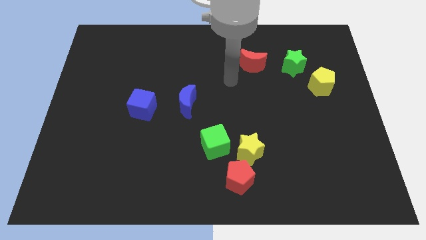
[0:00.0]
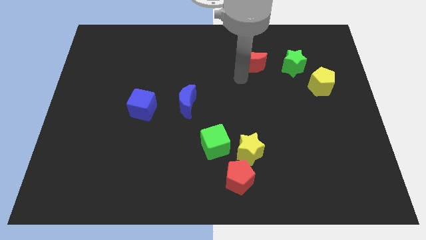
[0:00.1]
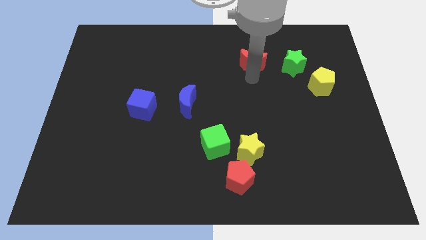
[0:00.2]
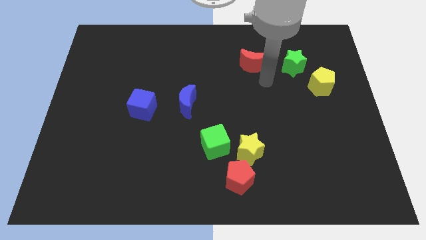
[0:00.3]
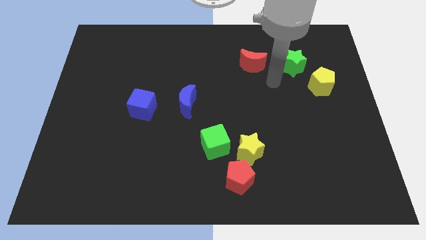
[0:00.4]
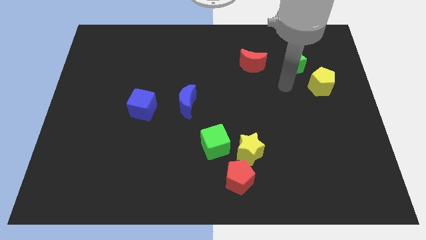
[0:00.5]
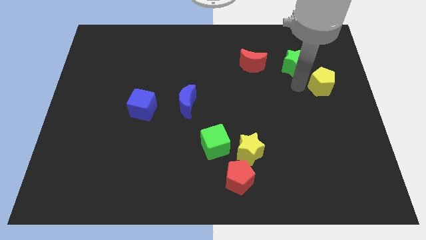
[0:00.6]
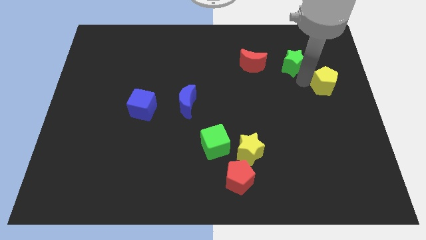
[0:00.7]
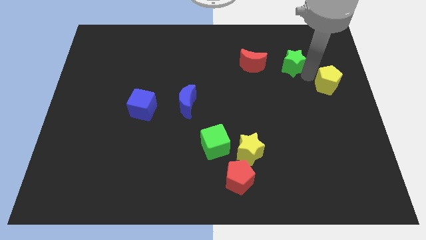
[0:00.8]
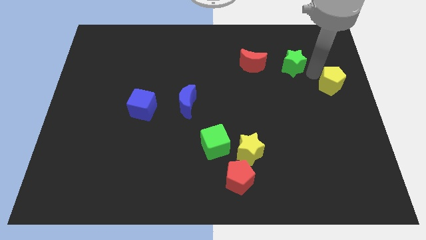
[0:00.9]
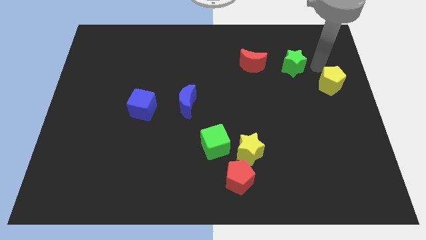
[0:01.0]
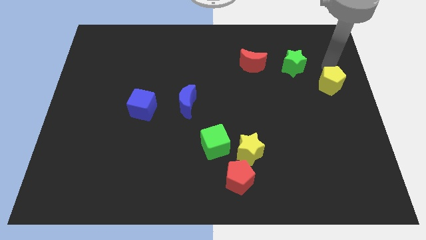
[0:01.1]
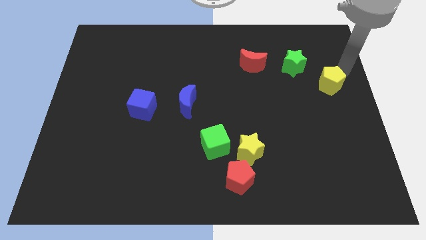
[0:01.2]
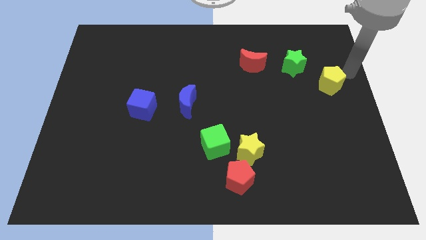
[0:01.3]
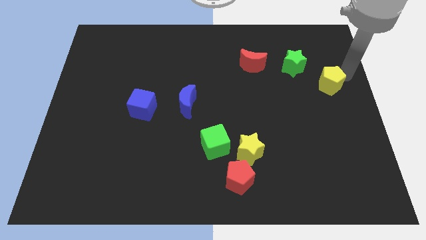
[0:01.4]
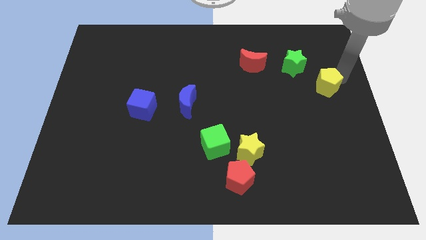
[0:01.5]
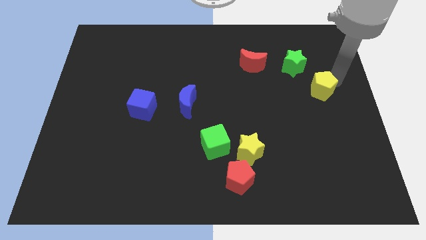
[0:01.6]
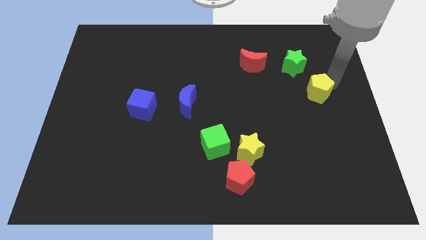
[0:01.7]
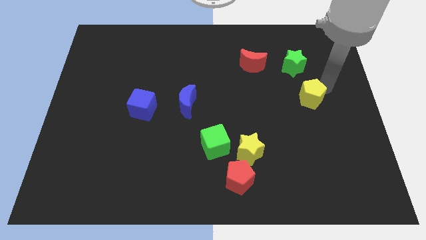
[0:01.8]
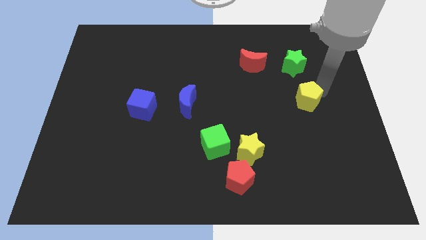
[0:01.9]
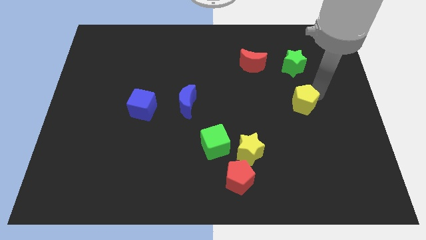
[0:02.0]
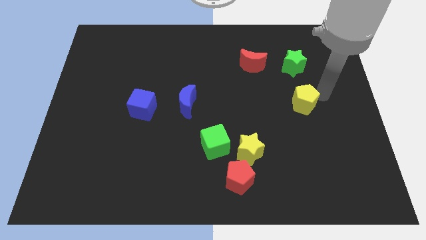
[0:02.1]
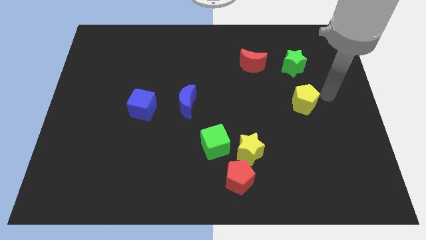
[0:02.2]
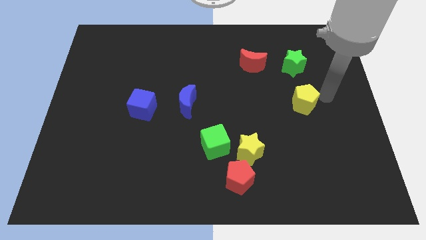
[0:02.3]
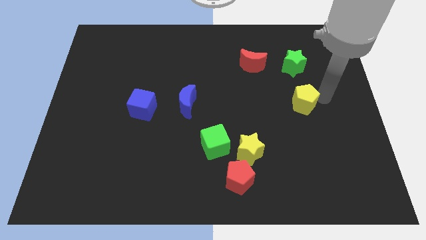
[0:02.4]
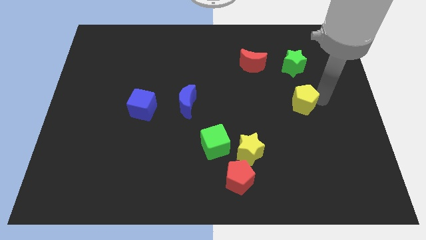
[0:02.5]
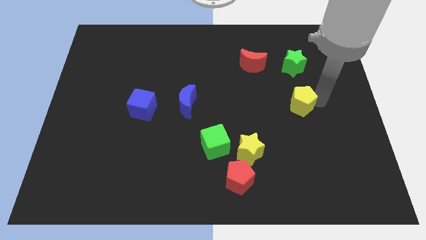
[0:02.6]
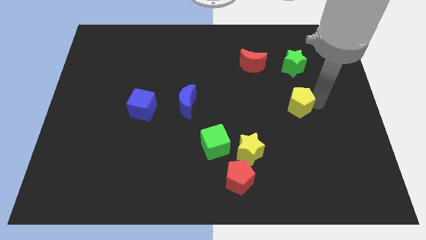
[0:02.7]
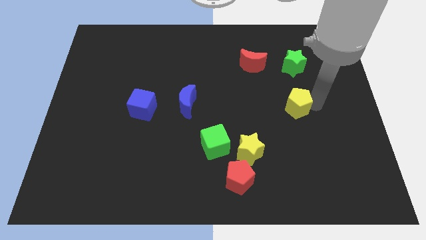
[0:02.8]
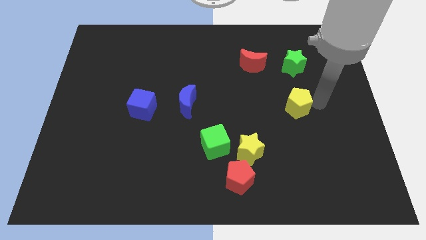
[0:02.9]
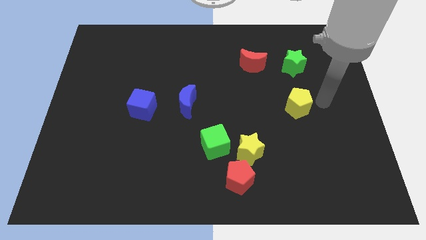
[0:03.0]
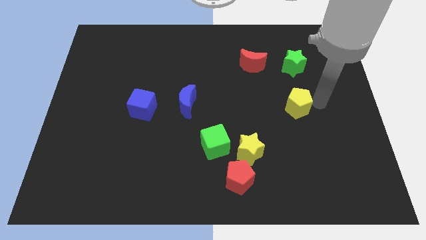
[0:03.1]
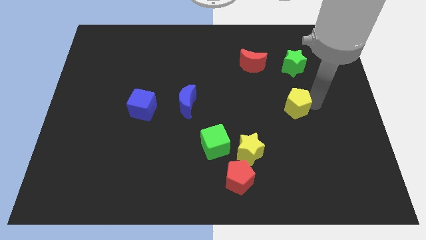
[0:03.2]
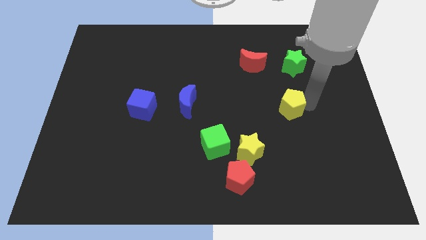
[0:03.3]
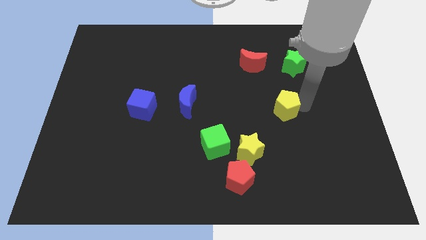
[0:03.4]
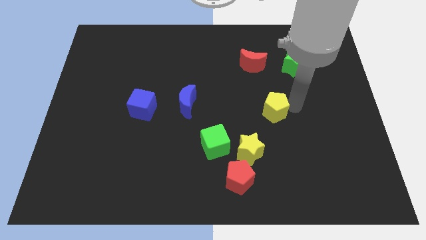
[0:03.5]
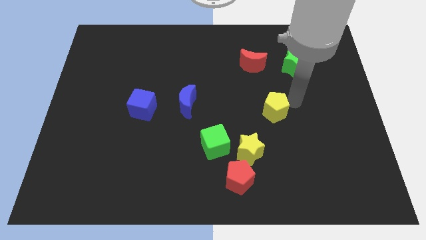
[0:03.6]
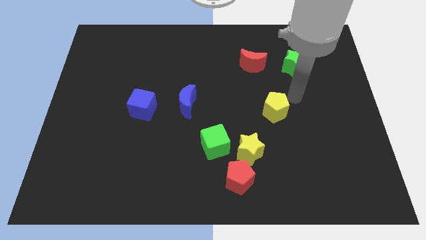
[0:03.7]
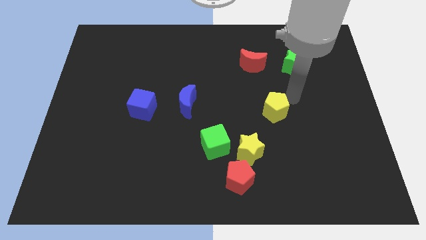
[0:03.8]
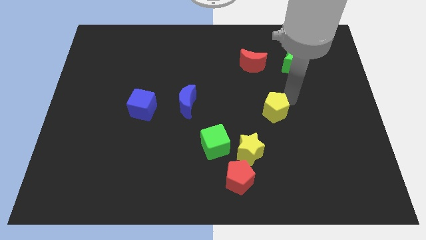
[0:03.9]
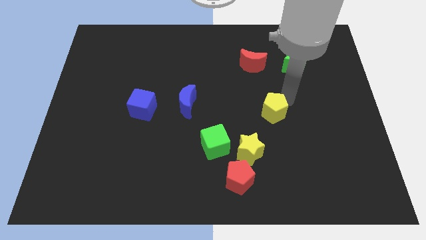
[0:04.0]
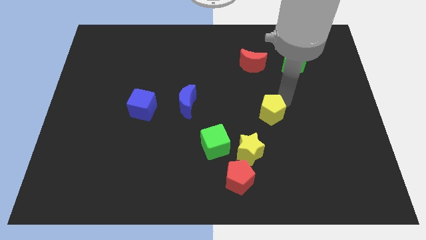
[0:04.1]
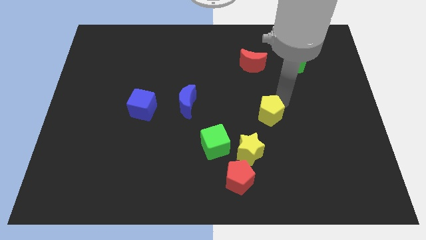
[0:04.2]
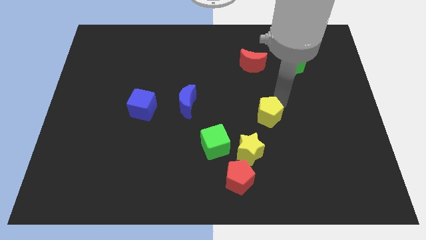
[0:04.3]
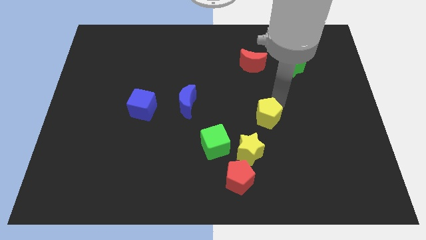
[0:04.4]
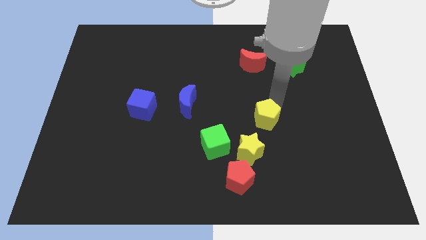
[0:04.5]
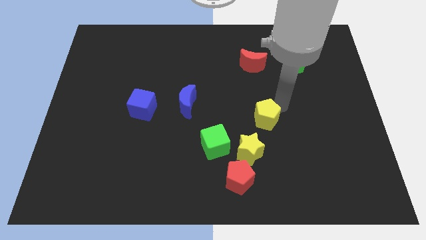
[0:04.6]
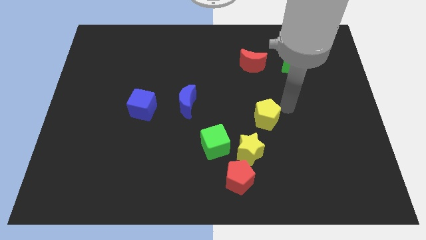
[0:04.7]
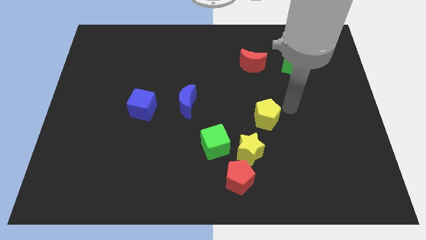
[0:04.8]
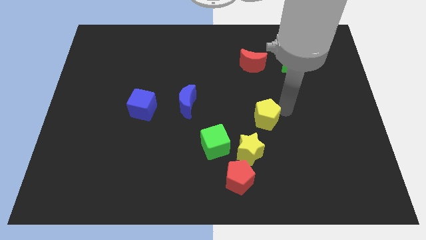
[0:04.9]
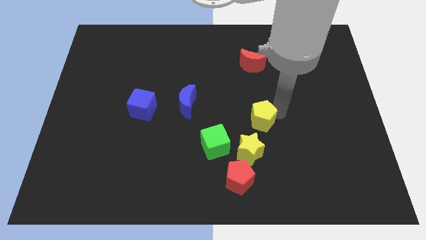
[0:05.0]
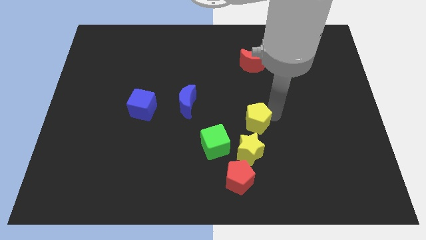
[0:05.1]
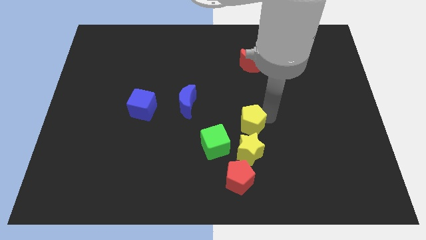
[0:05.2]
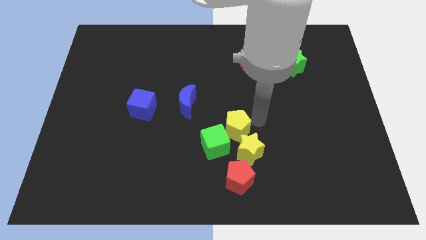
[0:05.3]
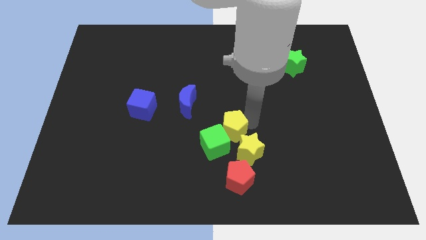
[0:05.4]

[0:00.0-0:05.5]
slide the yellow pentagon next to the green cube

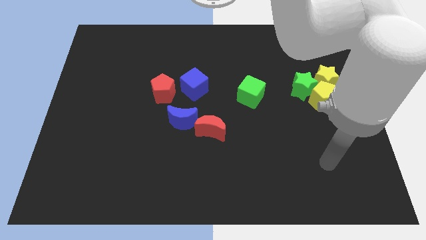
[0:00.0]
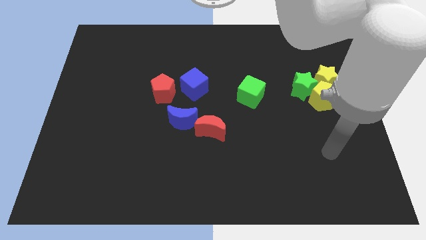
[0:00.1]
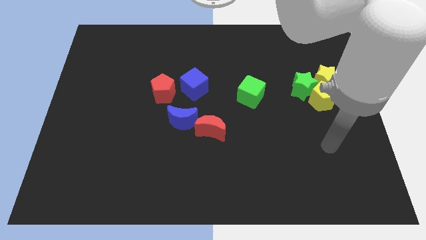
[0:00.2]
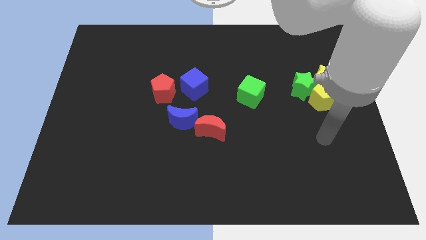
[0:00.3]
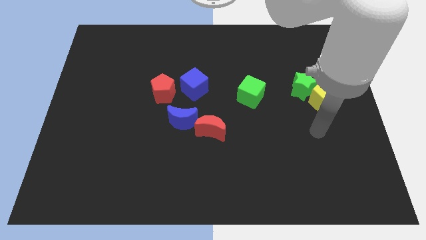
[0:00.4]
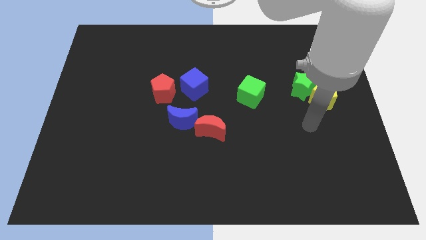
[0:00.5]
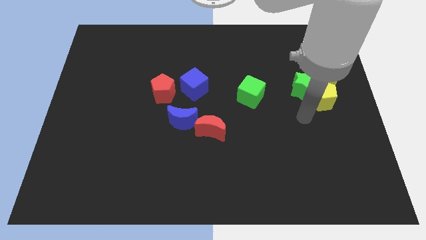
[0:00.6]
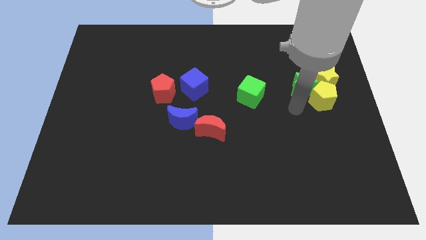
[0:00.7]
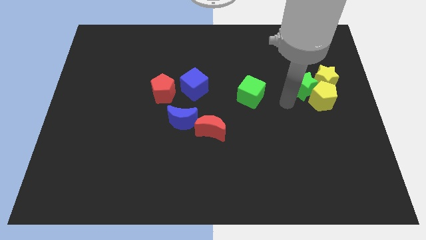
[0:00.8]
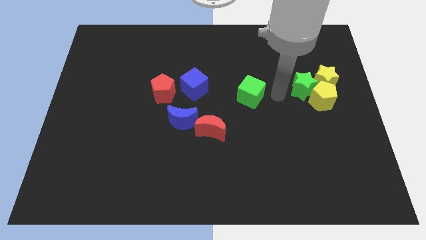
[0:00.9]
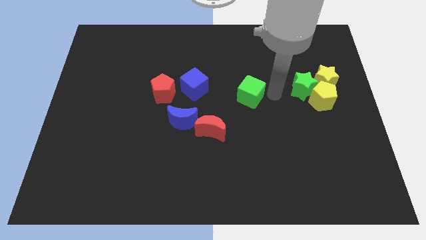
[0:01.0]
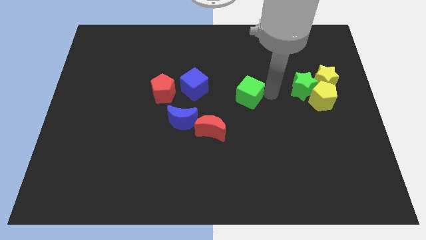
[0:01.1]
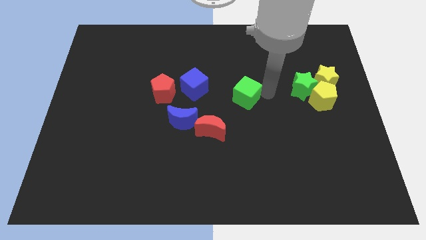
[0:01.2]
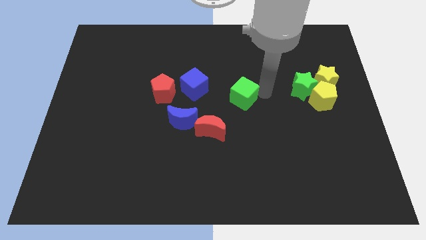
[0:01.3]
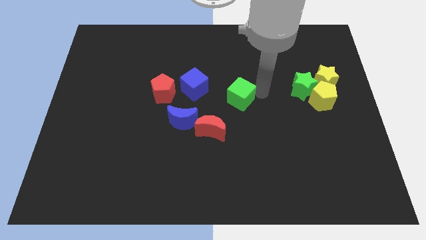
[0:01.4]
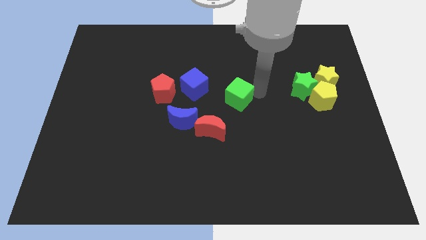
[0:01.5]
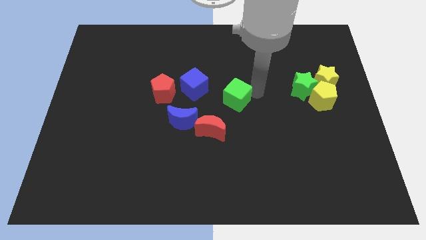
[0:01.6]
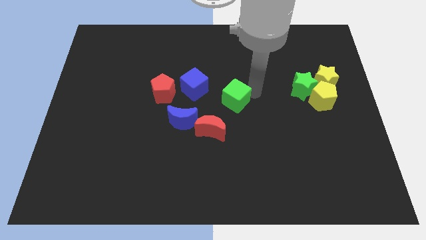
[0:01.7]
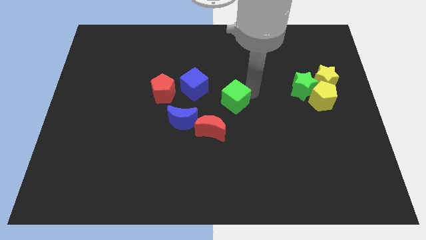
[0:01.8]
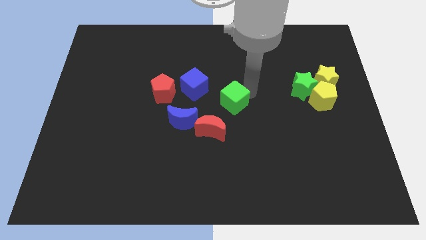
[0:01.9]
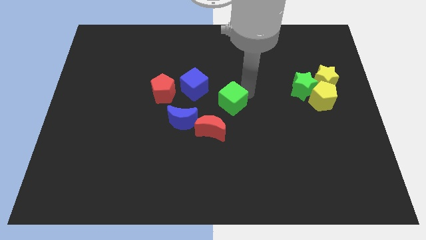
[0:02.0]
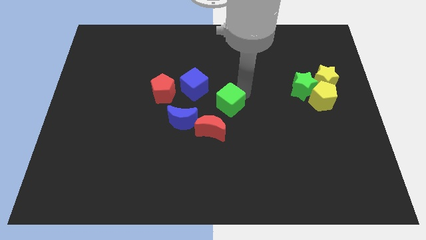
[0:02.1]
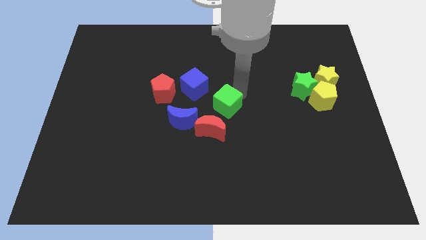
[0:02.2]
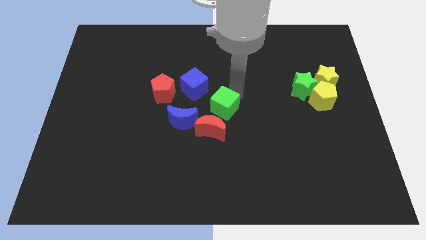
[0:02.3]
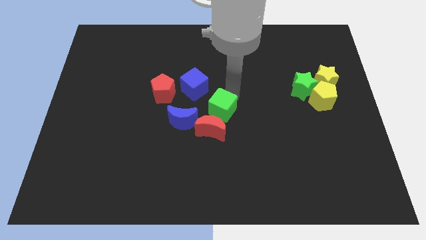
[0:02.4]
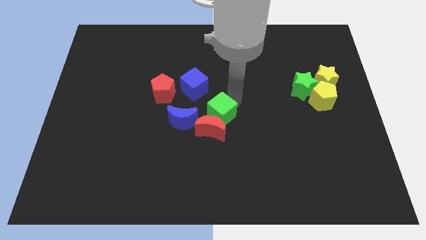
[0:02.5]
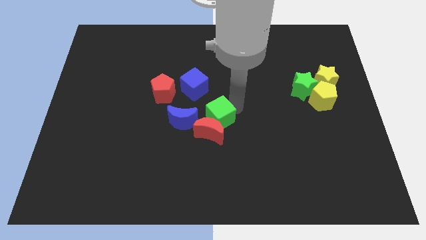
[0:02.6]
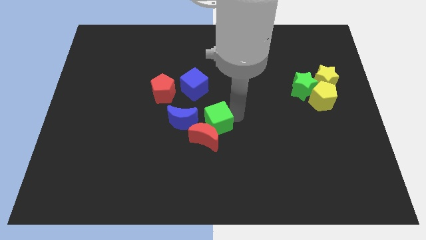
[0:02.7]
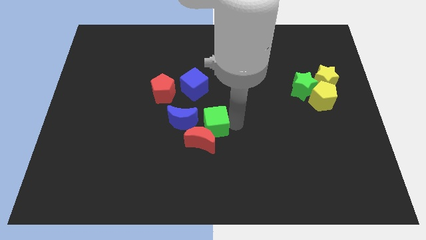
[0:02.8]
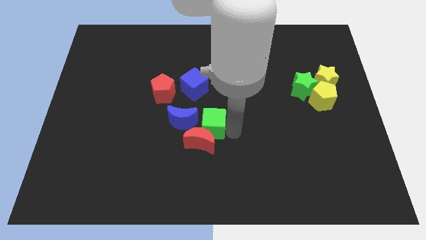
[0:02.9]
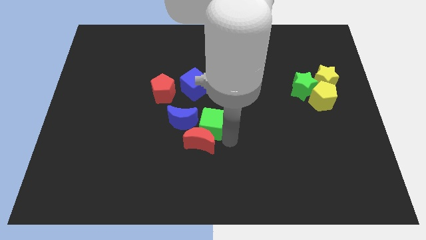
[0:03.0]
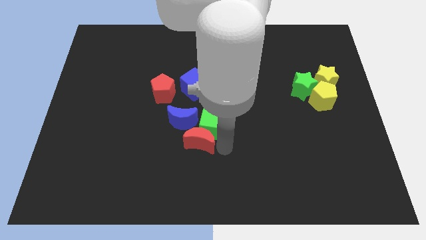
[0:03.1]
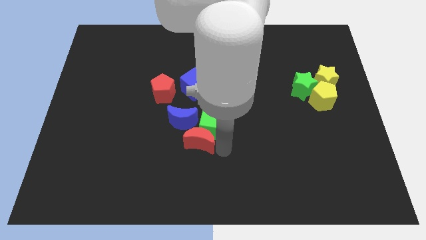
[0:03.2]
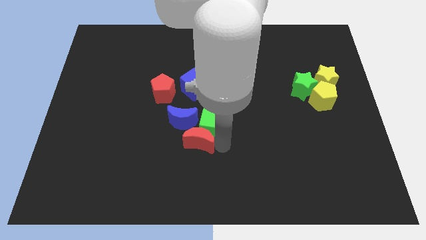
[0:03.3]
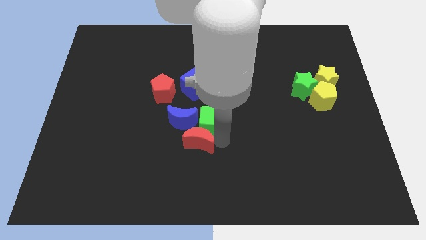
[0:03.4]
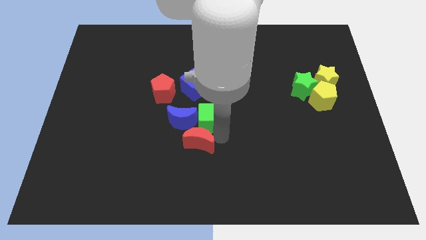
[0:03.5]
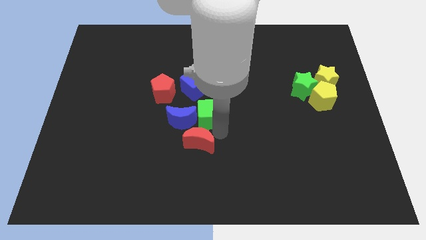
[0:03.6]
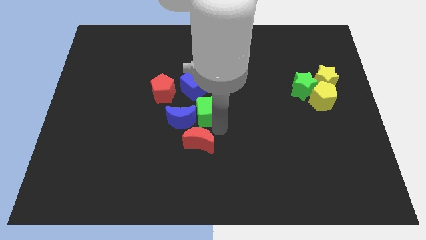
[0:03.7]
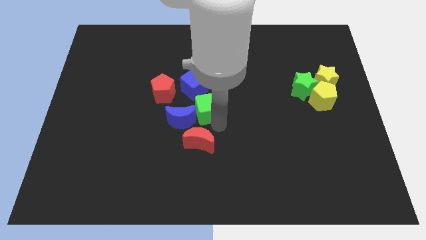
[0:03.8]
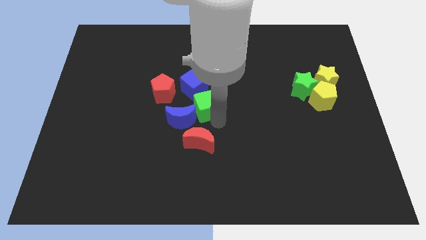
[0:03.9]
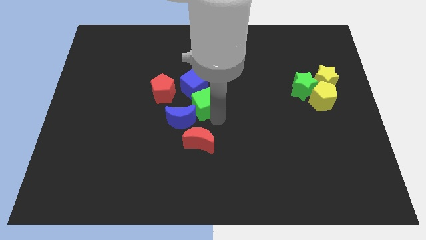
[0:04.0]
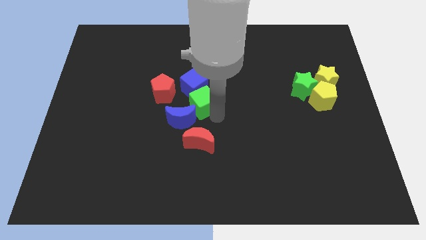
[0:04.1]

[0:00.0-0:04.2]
put the green cube towards the blue cube
